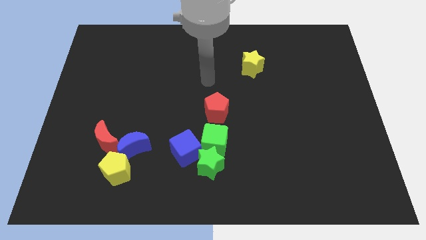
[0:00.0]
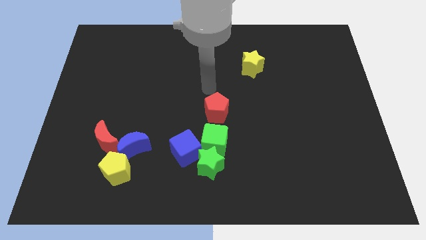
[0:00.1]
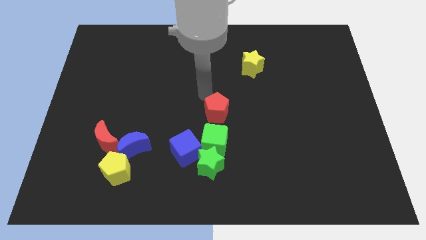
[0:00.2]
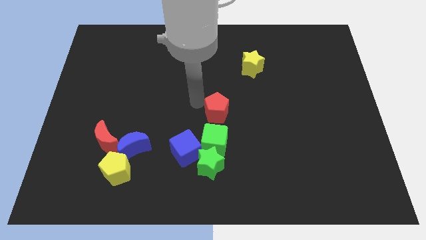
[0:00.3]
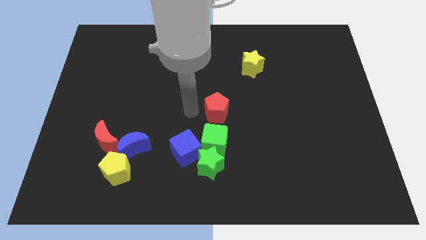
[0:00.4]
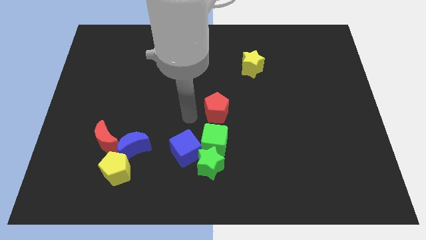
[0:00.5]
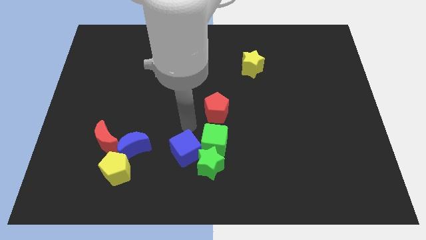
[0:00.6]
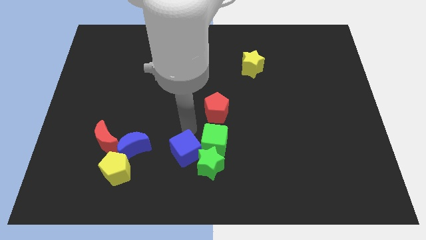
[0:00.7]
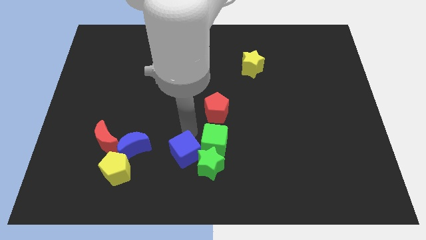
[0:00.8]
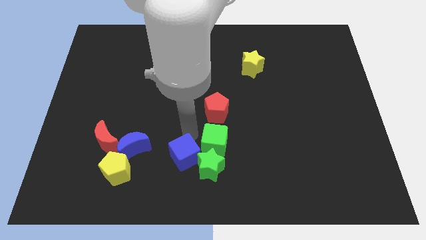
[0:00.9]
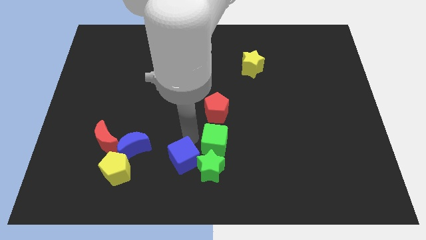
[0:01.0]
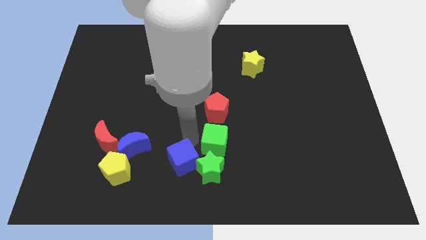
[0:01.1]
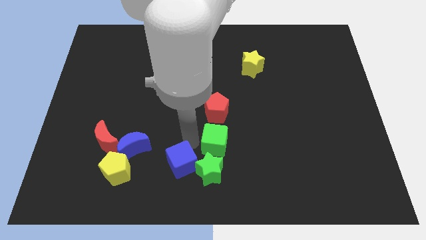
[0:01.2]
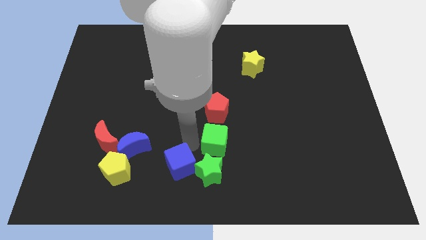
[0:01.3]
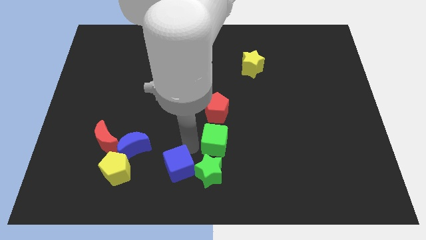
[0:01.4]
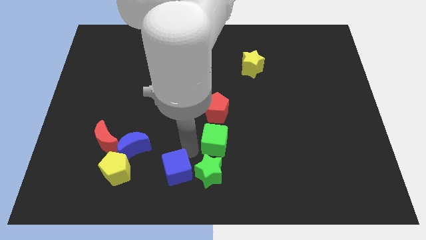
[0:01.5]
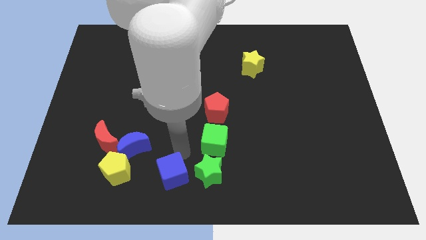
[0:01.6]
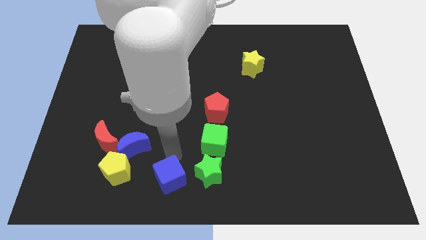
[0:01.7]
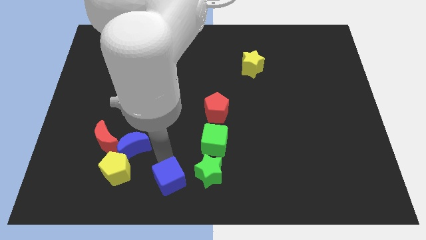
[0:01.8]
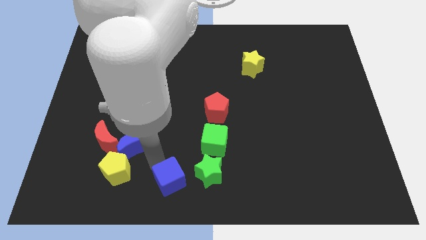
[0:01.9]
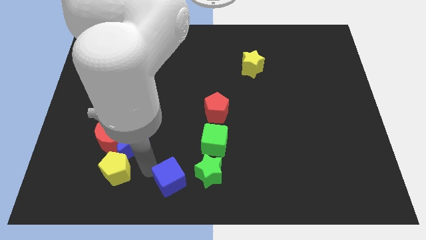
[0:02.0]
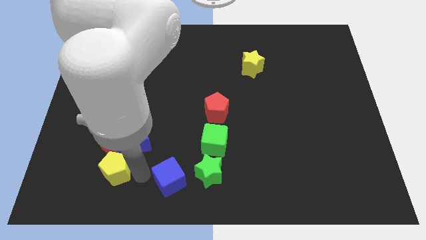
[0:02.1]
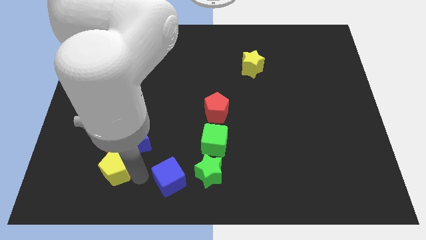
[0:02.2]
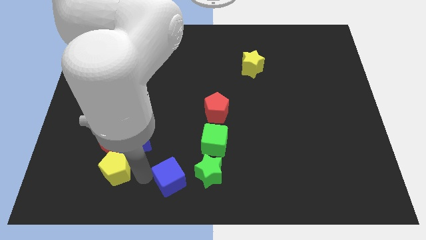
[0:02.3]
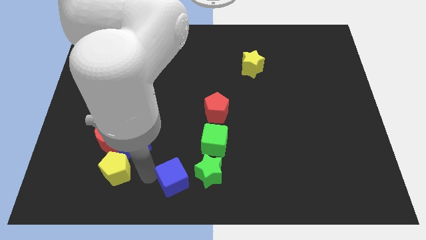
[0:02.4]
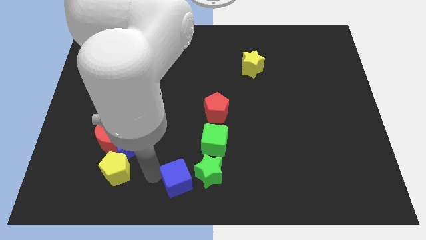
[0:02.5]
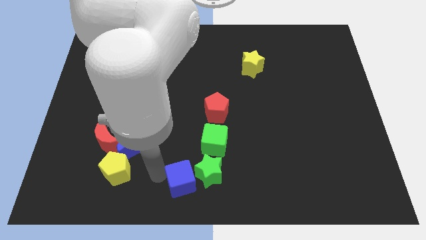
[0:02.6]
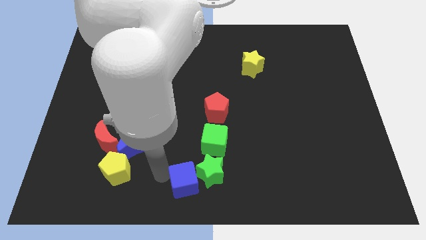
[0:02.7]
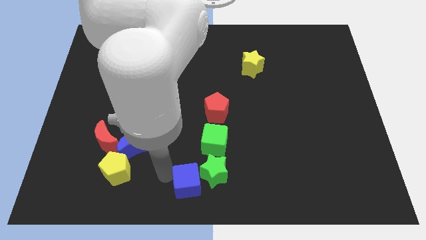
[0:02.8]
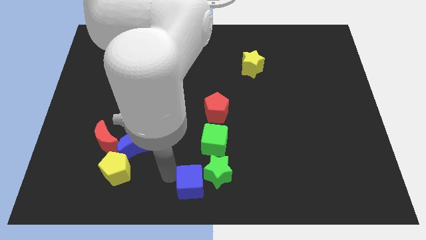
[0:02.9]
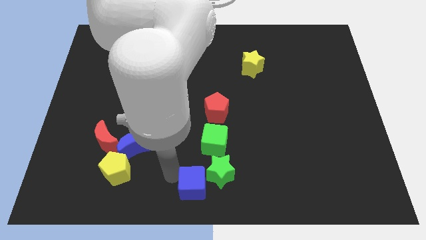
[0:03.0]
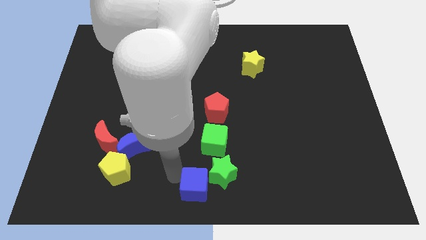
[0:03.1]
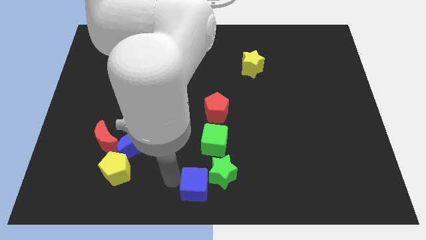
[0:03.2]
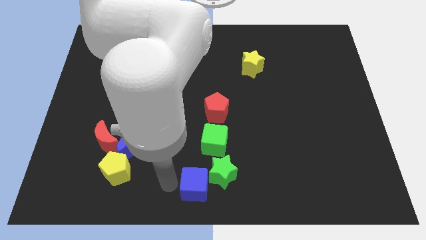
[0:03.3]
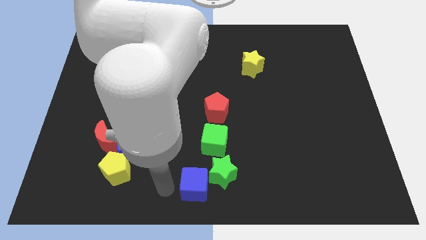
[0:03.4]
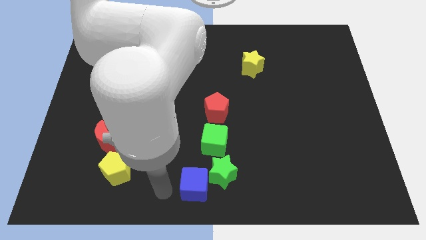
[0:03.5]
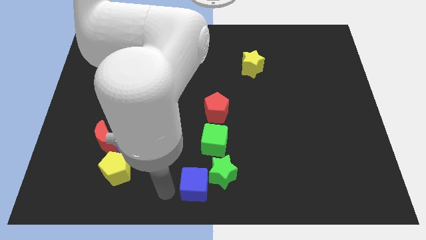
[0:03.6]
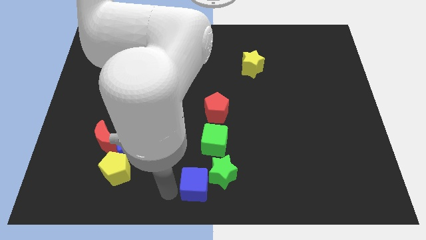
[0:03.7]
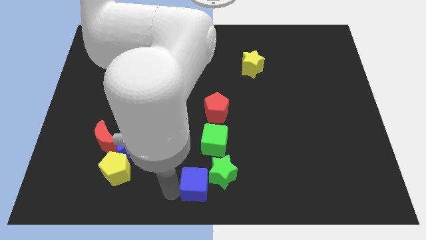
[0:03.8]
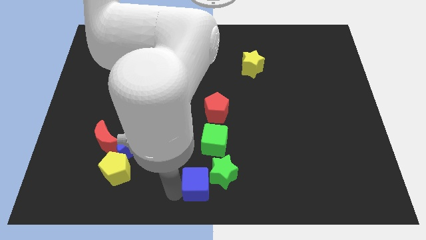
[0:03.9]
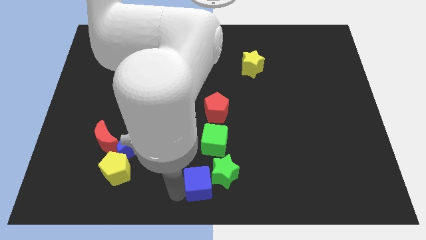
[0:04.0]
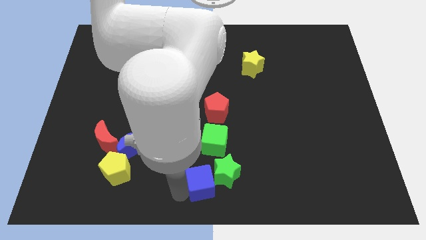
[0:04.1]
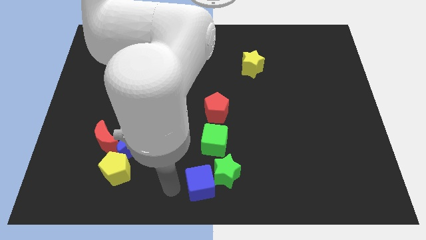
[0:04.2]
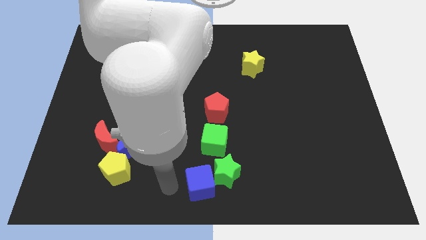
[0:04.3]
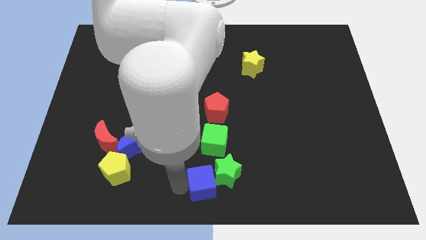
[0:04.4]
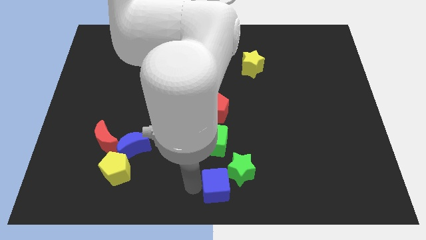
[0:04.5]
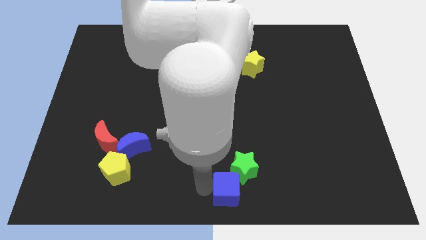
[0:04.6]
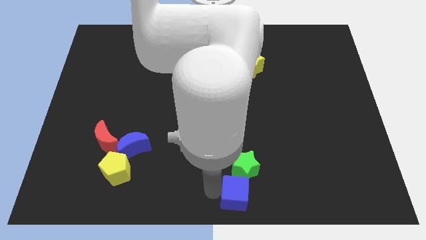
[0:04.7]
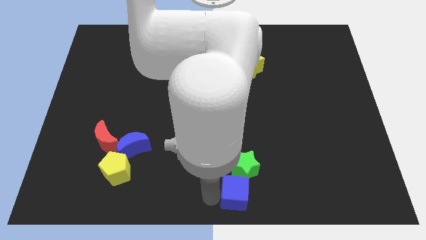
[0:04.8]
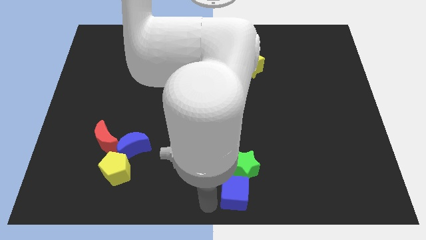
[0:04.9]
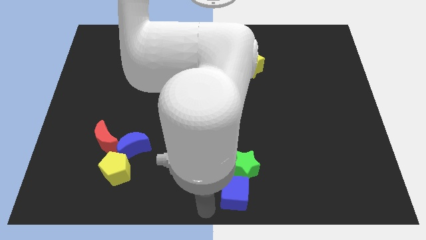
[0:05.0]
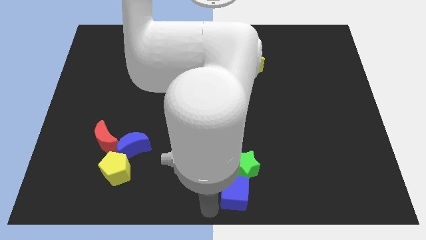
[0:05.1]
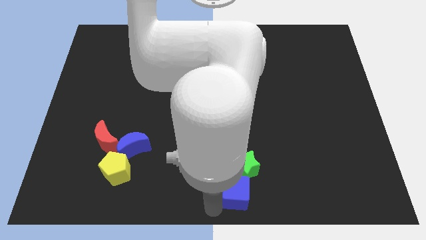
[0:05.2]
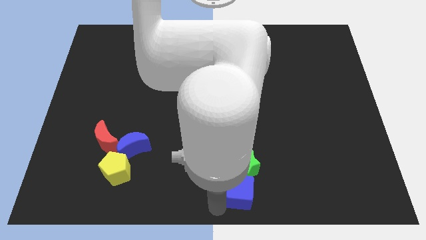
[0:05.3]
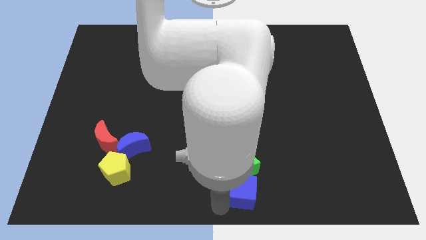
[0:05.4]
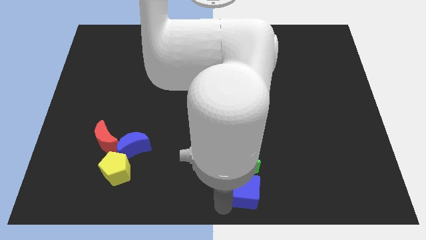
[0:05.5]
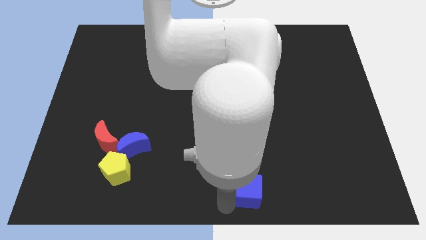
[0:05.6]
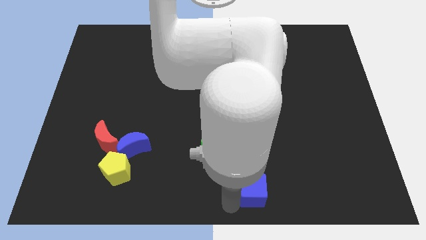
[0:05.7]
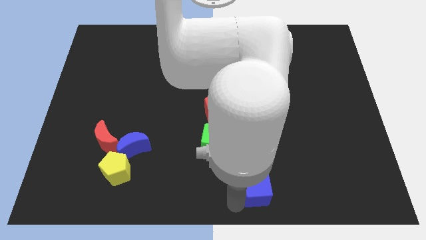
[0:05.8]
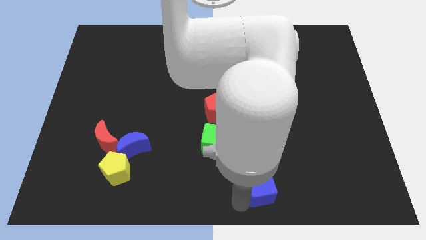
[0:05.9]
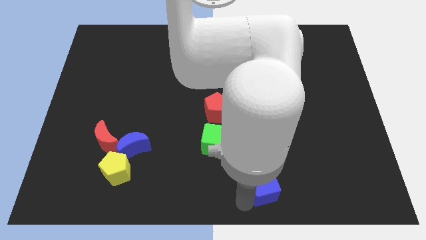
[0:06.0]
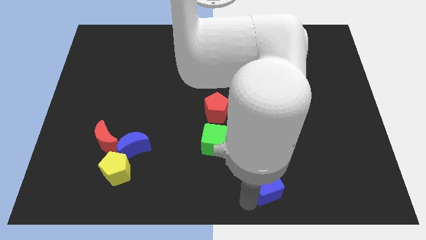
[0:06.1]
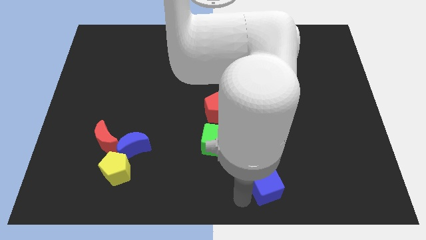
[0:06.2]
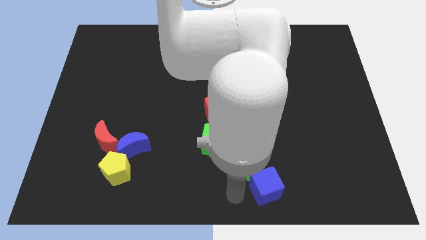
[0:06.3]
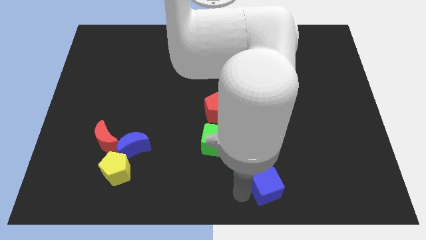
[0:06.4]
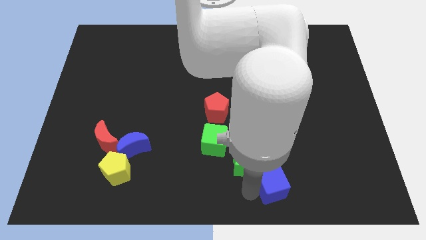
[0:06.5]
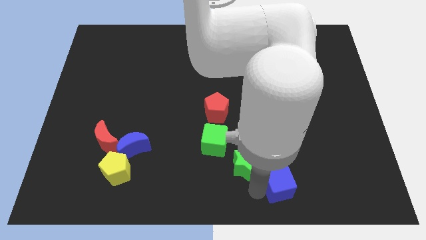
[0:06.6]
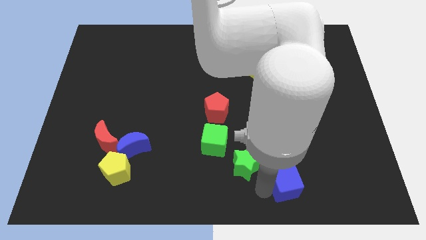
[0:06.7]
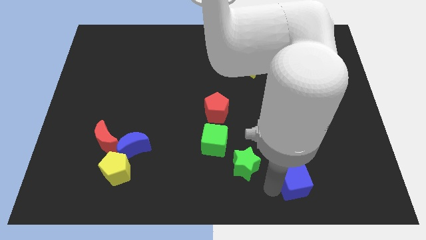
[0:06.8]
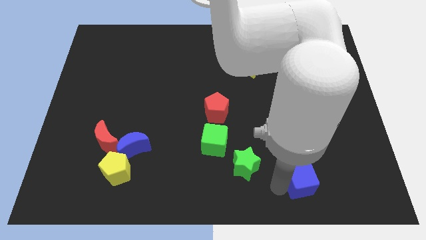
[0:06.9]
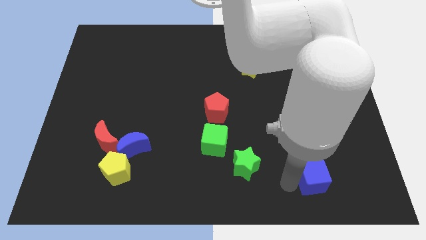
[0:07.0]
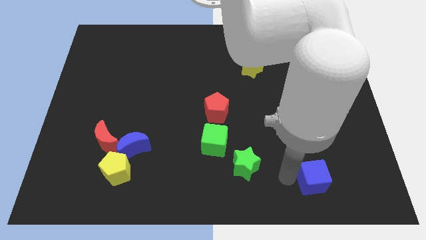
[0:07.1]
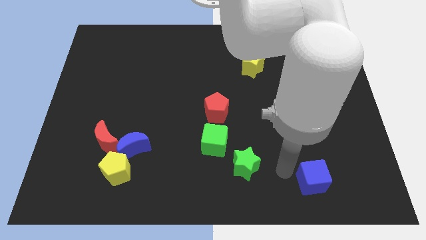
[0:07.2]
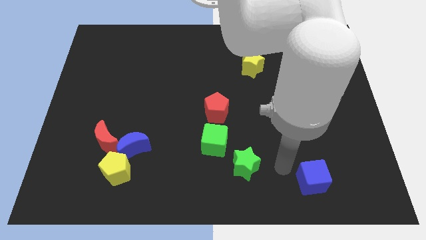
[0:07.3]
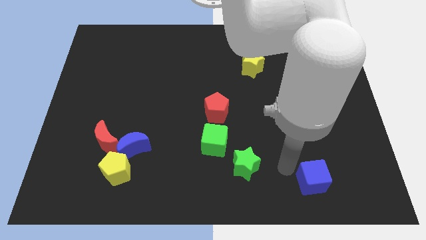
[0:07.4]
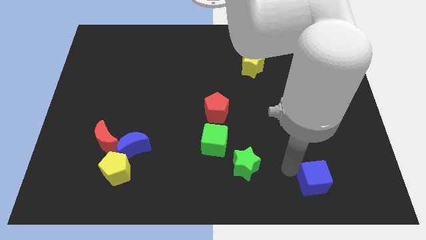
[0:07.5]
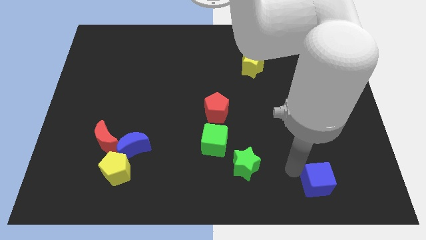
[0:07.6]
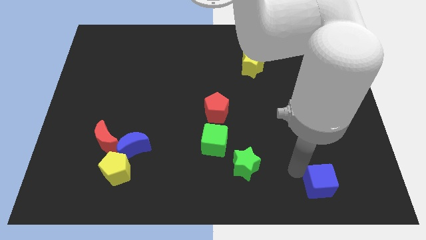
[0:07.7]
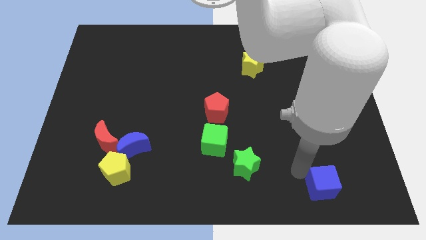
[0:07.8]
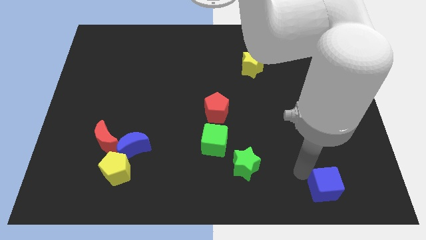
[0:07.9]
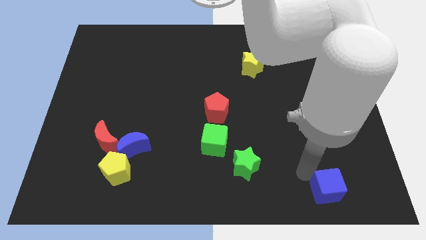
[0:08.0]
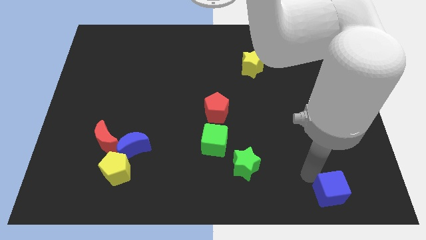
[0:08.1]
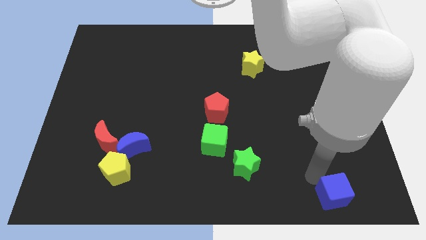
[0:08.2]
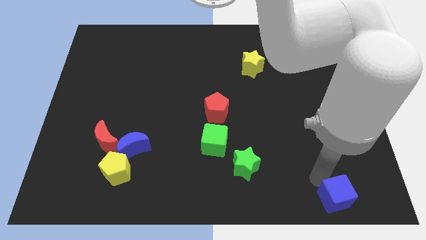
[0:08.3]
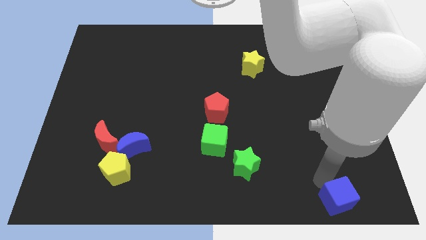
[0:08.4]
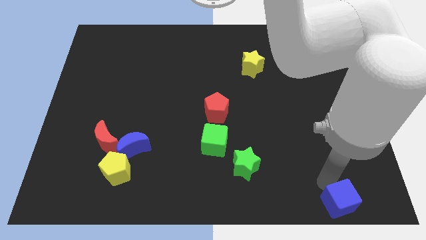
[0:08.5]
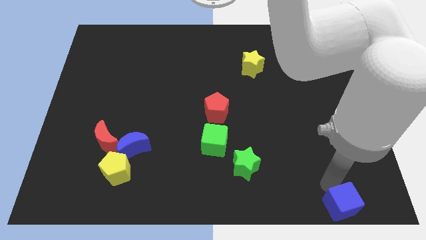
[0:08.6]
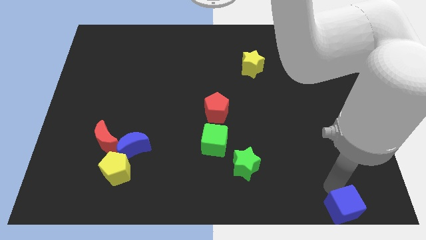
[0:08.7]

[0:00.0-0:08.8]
move the blue cube to the bottom right
